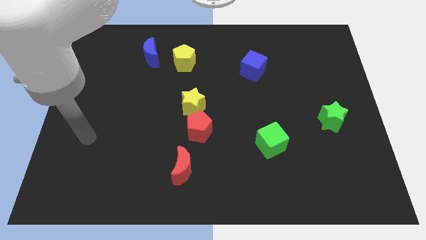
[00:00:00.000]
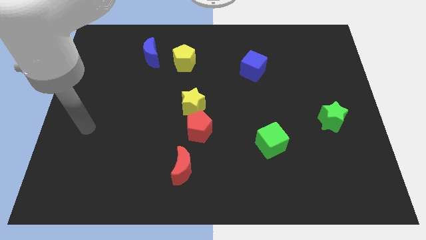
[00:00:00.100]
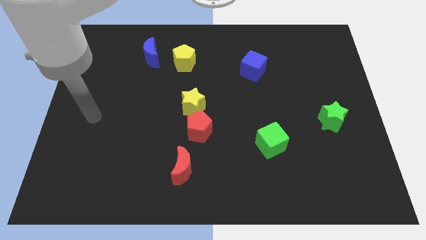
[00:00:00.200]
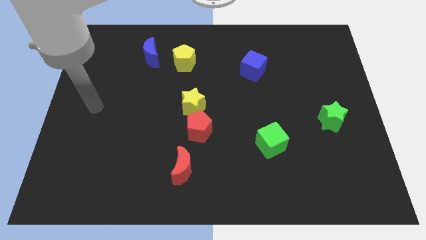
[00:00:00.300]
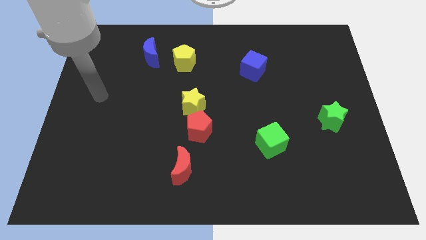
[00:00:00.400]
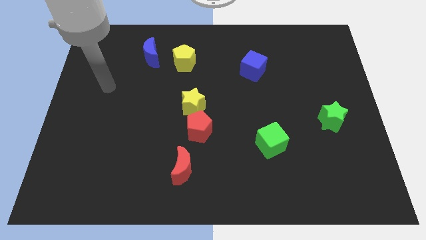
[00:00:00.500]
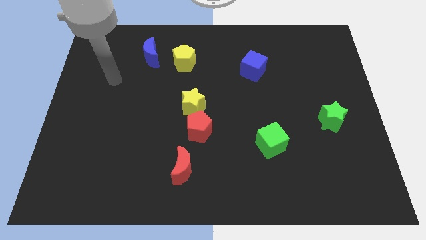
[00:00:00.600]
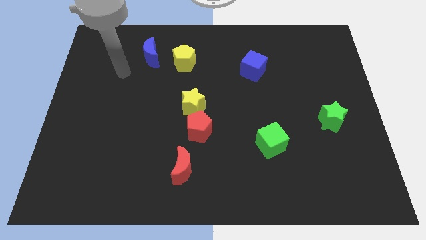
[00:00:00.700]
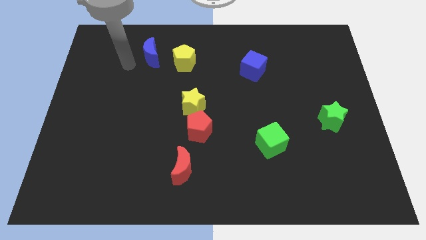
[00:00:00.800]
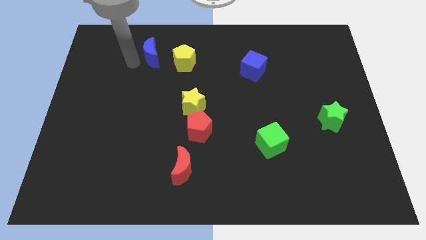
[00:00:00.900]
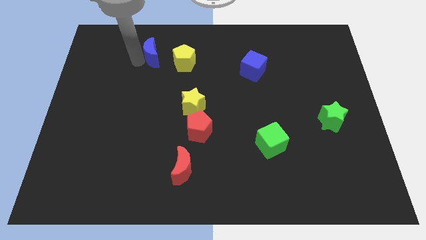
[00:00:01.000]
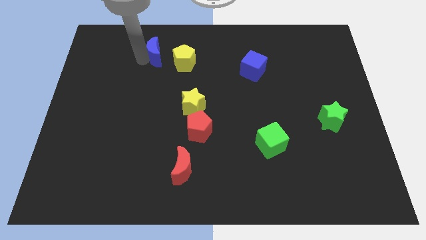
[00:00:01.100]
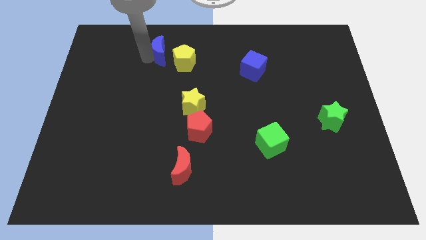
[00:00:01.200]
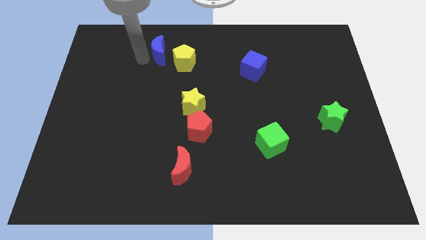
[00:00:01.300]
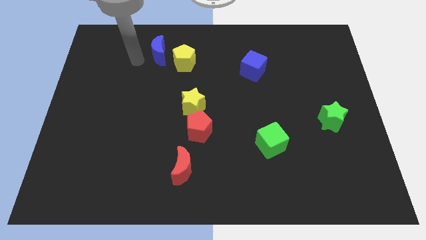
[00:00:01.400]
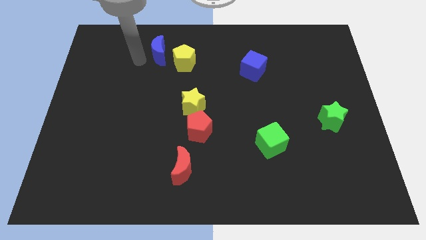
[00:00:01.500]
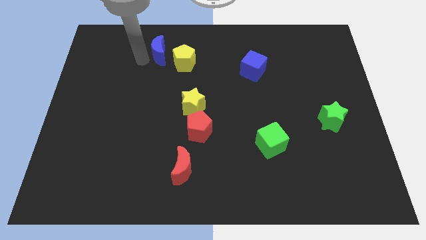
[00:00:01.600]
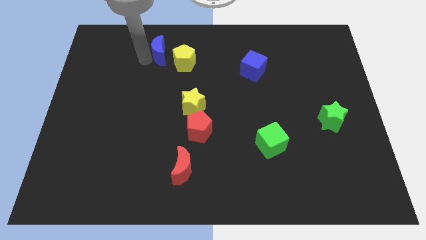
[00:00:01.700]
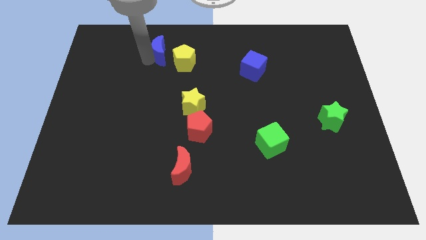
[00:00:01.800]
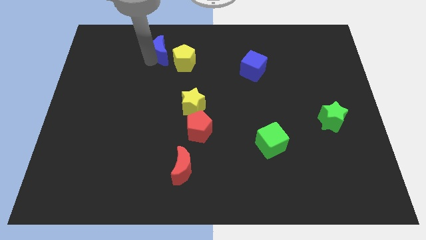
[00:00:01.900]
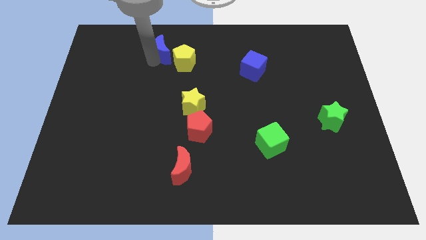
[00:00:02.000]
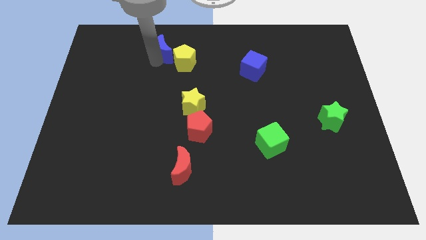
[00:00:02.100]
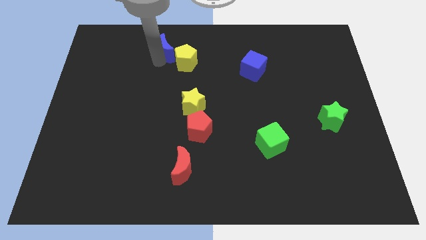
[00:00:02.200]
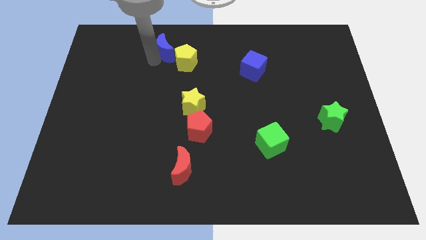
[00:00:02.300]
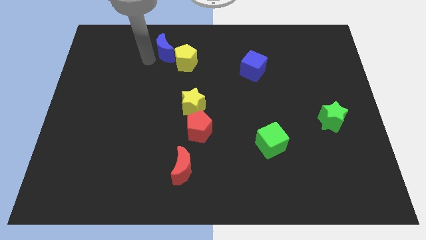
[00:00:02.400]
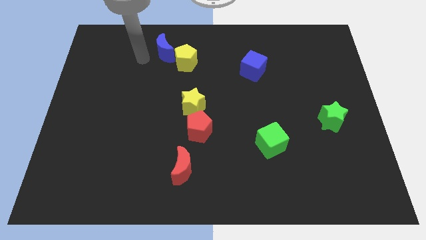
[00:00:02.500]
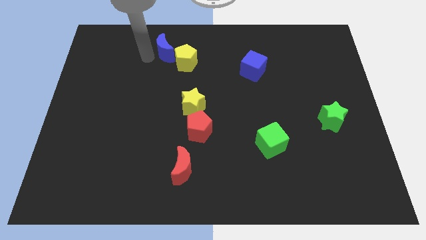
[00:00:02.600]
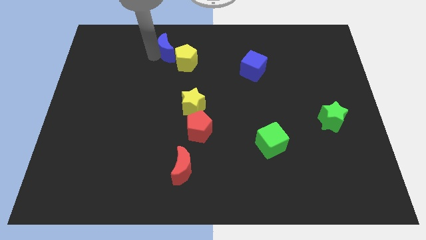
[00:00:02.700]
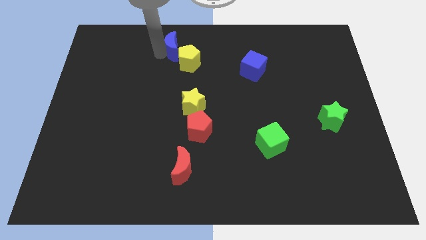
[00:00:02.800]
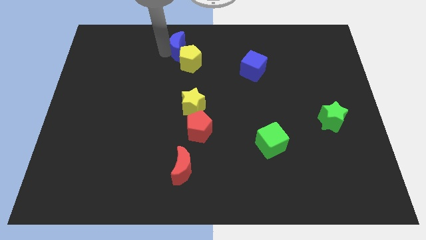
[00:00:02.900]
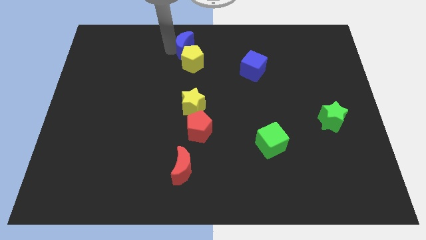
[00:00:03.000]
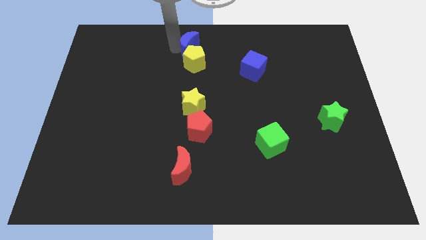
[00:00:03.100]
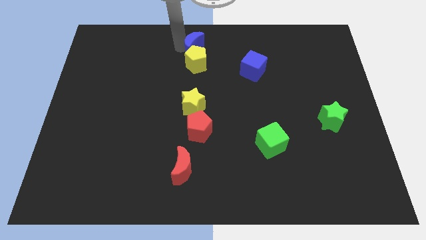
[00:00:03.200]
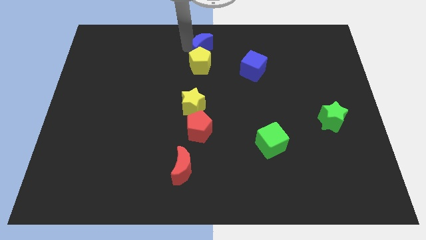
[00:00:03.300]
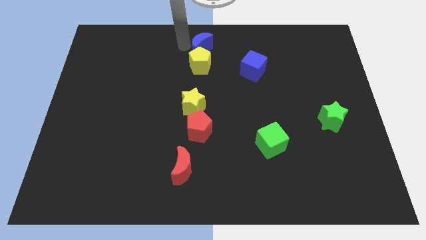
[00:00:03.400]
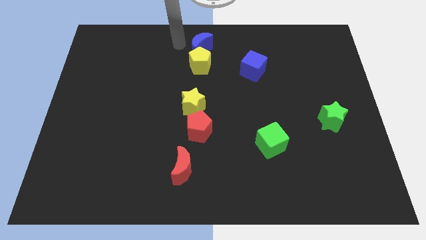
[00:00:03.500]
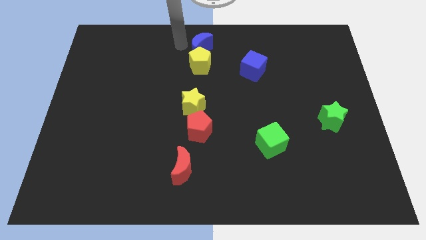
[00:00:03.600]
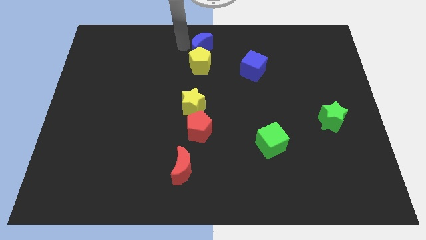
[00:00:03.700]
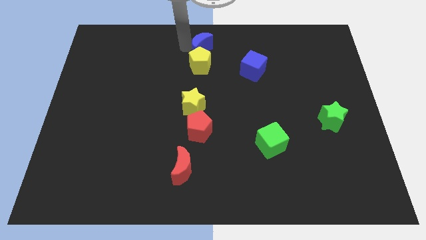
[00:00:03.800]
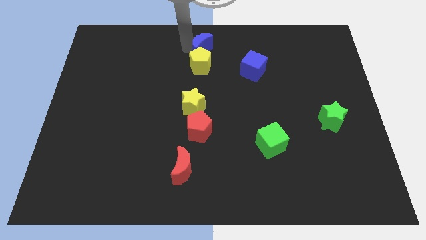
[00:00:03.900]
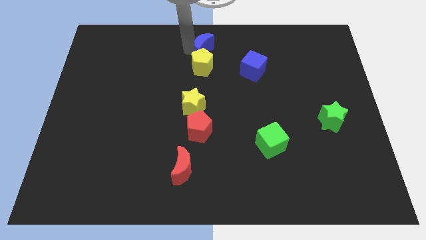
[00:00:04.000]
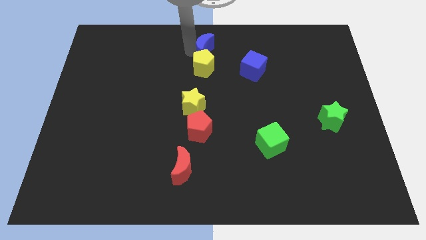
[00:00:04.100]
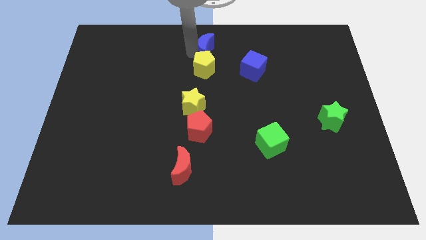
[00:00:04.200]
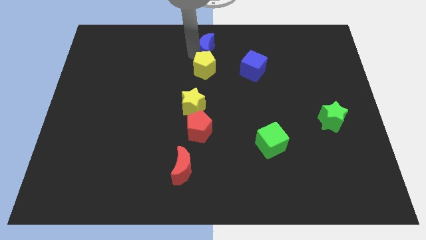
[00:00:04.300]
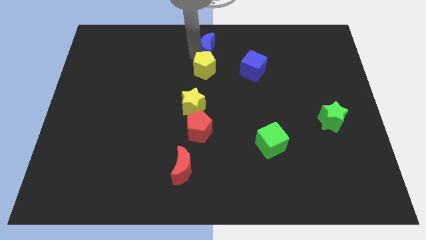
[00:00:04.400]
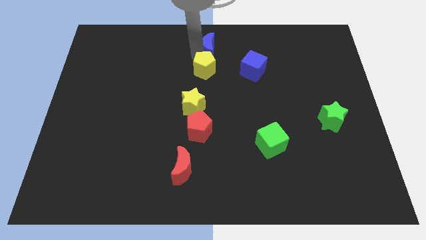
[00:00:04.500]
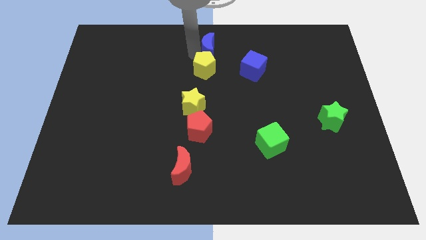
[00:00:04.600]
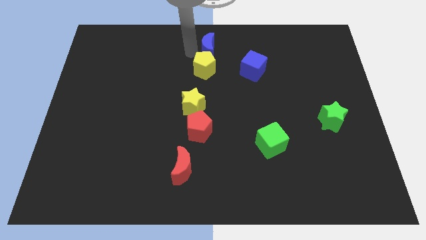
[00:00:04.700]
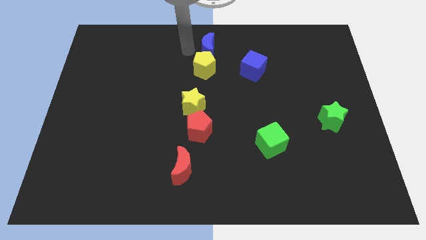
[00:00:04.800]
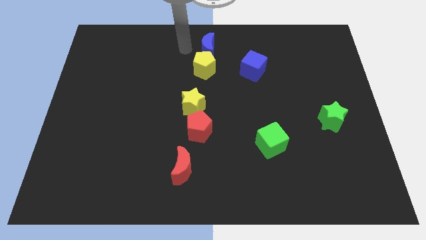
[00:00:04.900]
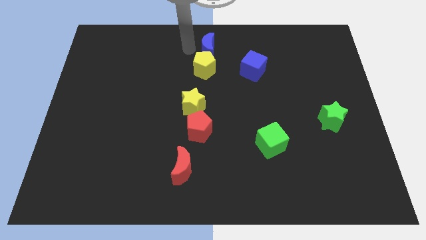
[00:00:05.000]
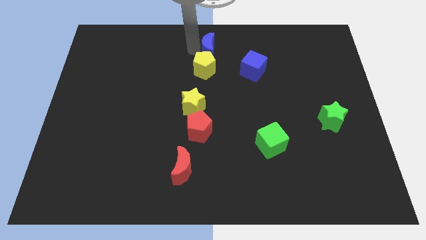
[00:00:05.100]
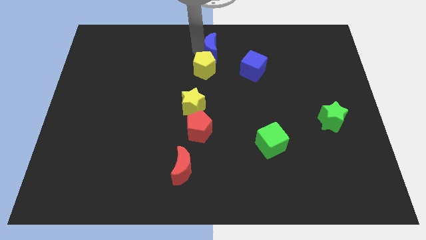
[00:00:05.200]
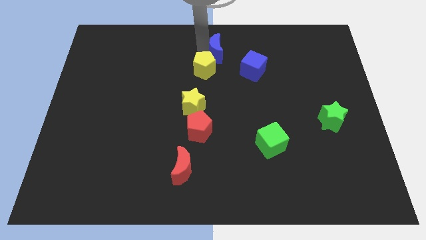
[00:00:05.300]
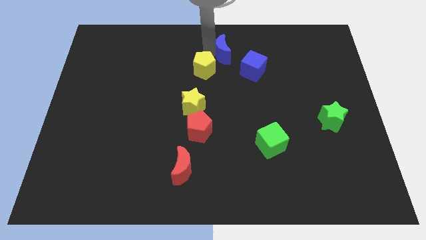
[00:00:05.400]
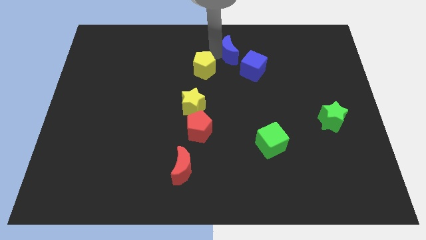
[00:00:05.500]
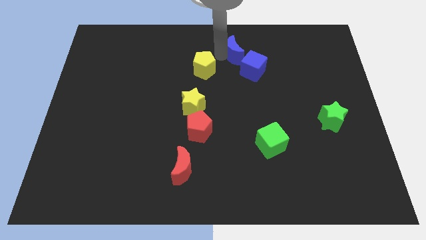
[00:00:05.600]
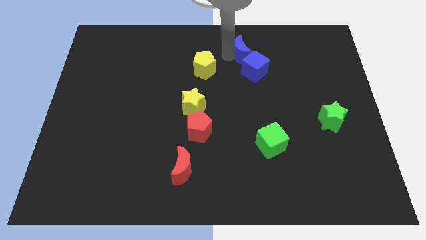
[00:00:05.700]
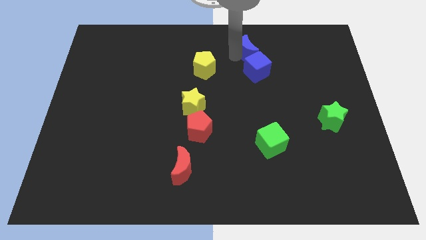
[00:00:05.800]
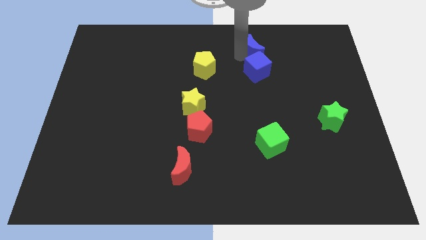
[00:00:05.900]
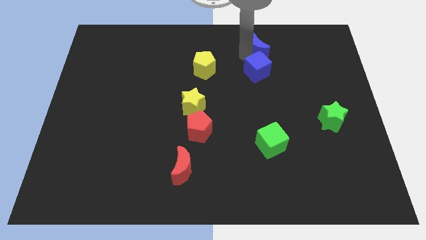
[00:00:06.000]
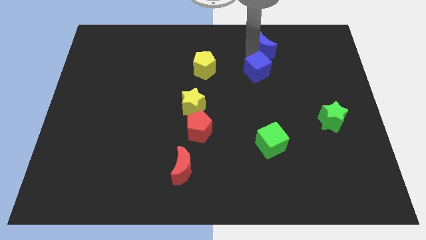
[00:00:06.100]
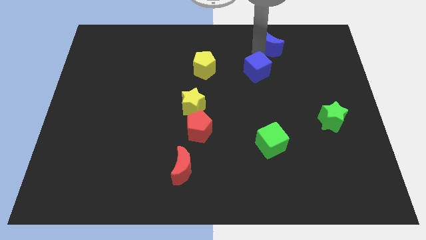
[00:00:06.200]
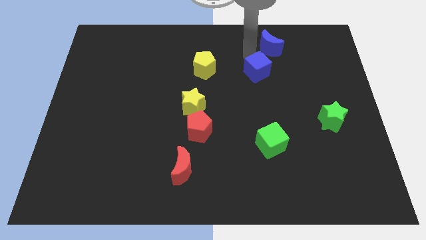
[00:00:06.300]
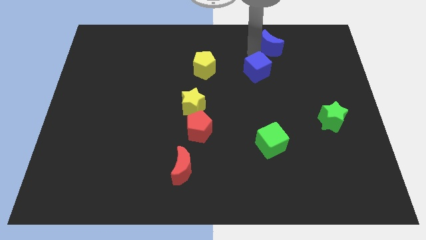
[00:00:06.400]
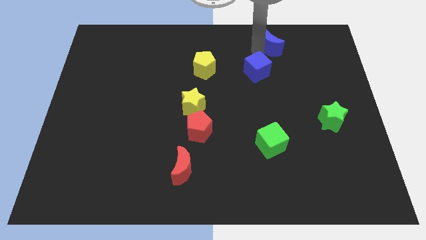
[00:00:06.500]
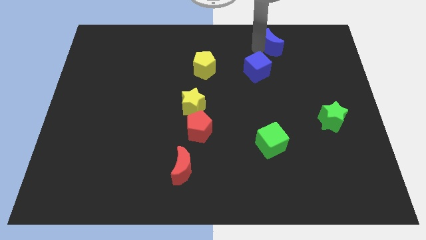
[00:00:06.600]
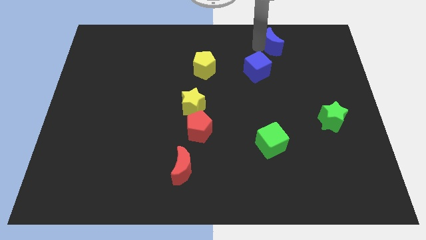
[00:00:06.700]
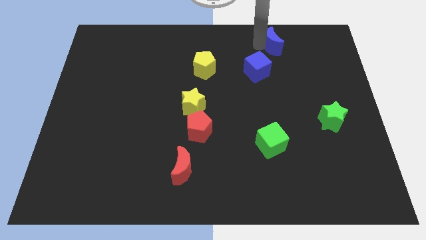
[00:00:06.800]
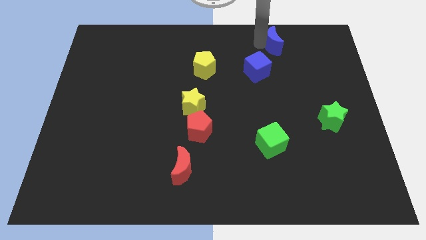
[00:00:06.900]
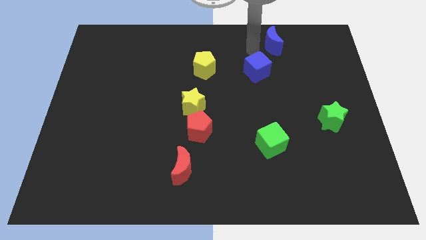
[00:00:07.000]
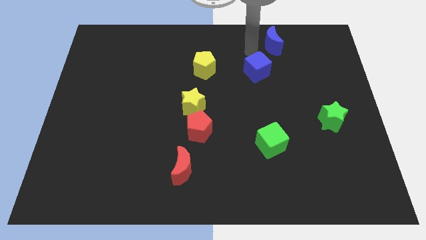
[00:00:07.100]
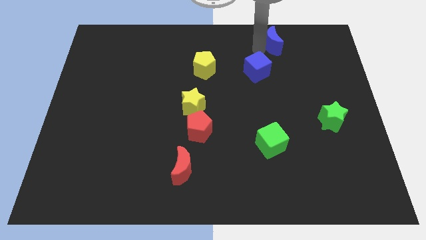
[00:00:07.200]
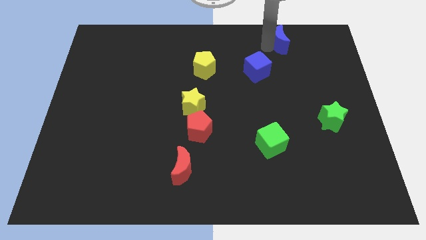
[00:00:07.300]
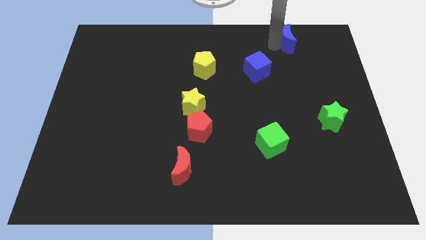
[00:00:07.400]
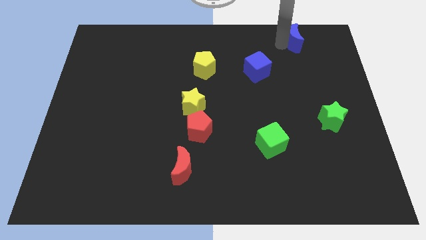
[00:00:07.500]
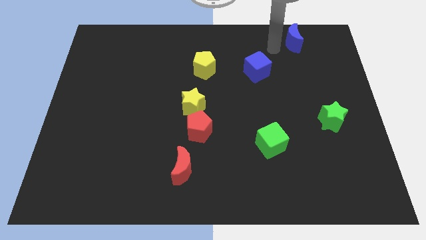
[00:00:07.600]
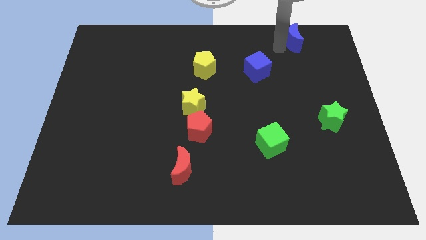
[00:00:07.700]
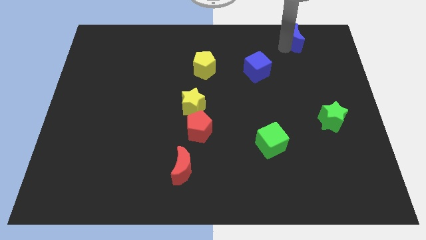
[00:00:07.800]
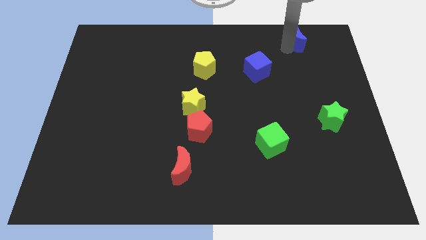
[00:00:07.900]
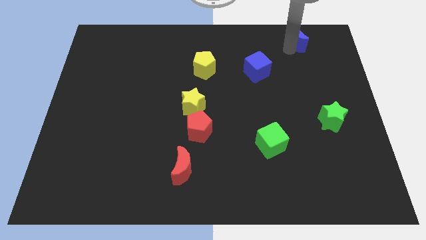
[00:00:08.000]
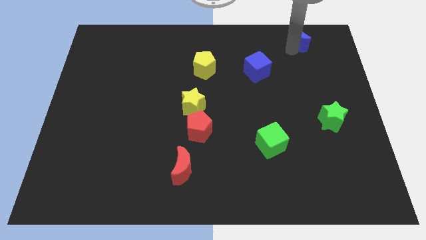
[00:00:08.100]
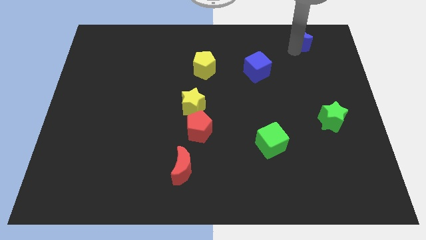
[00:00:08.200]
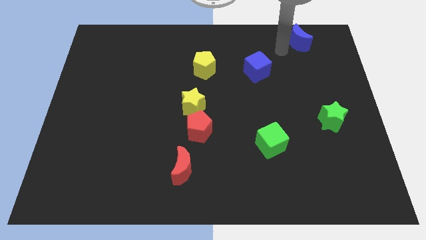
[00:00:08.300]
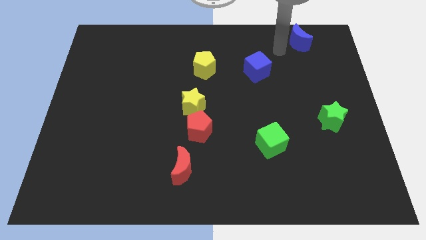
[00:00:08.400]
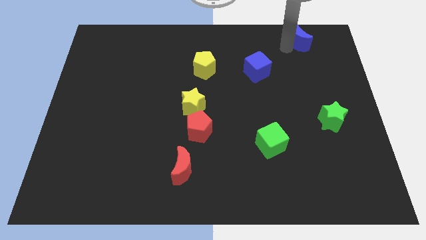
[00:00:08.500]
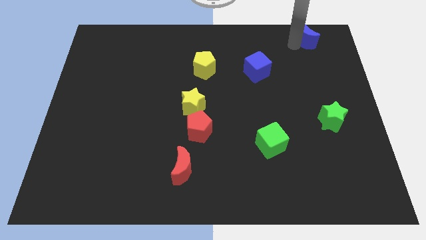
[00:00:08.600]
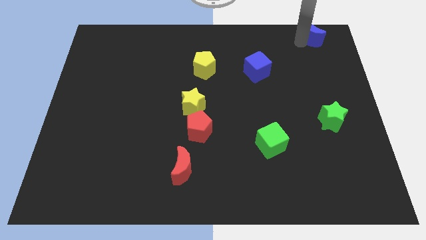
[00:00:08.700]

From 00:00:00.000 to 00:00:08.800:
push the blue moon to the upper right corner
